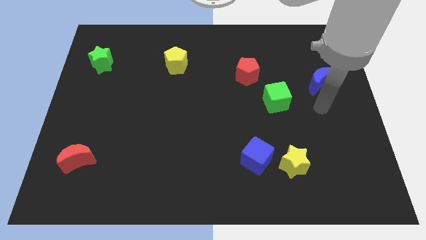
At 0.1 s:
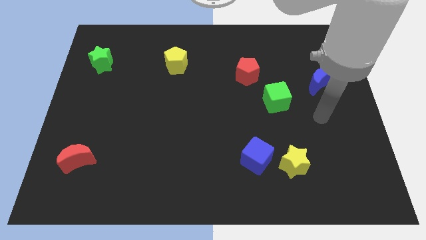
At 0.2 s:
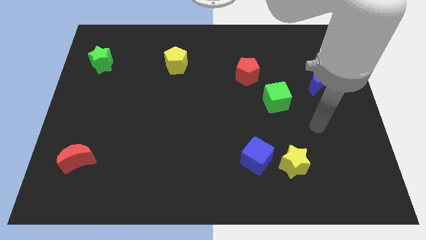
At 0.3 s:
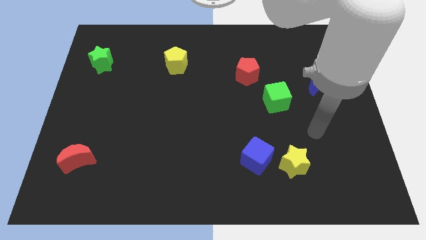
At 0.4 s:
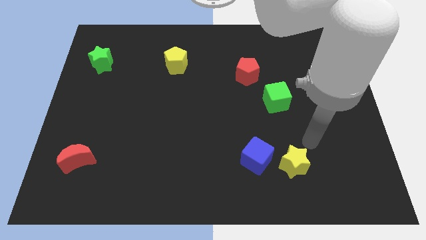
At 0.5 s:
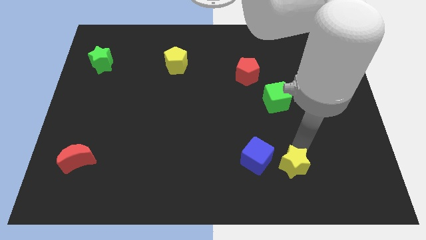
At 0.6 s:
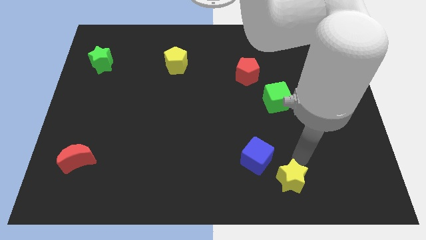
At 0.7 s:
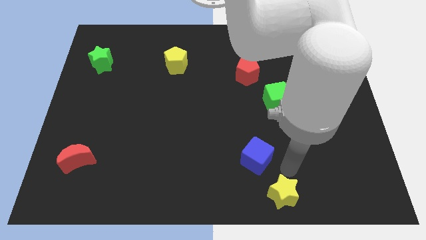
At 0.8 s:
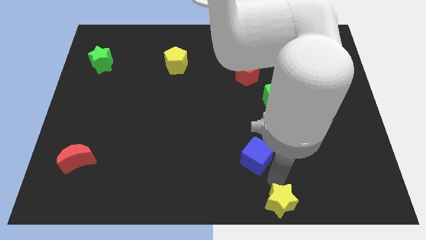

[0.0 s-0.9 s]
pull the blue cube apart from the yellow star

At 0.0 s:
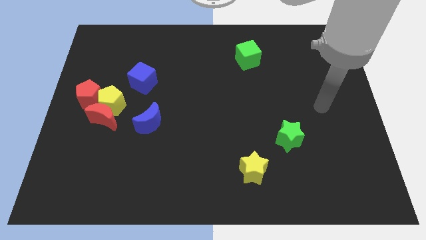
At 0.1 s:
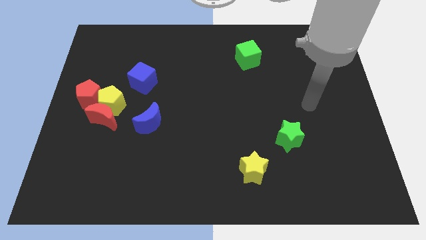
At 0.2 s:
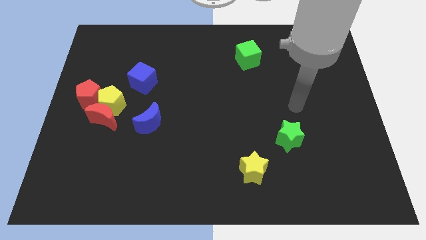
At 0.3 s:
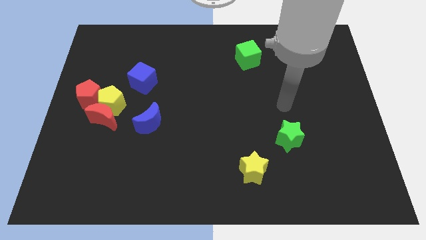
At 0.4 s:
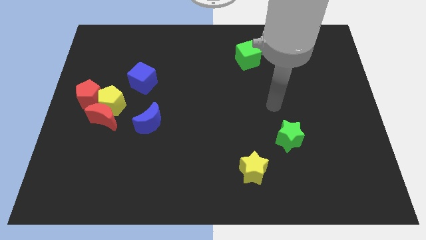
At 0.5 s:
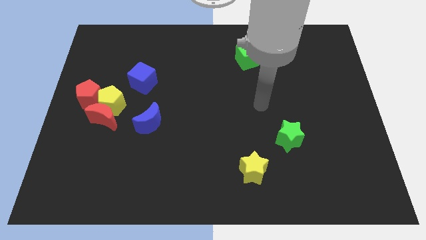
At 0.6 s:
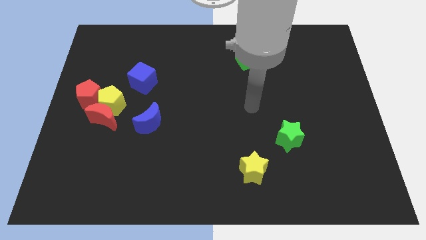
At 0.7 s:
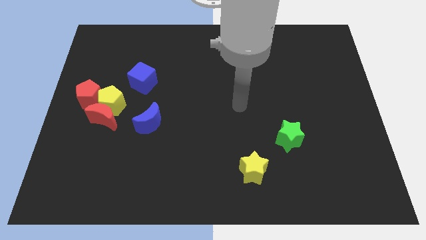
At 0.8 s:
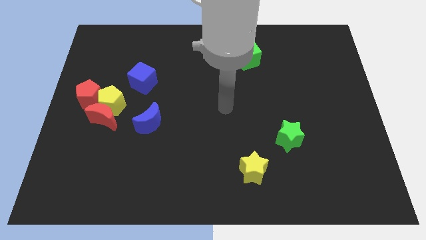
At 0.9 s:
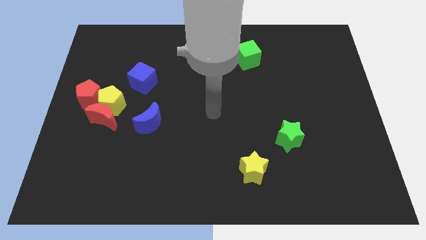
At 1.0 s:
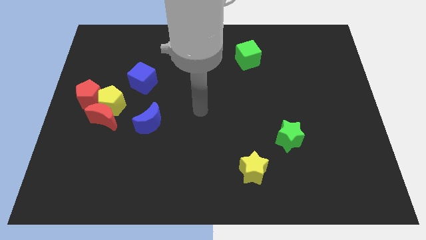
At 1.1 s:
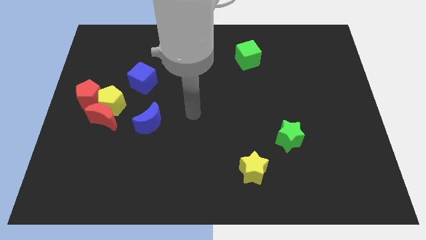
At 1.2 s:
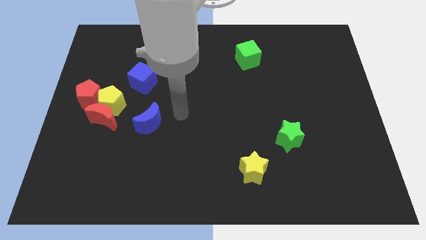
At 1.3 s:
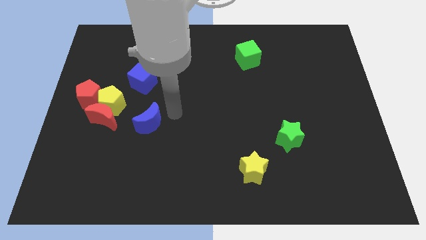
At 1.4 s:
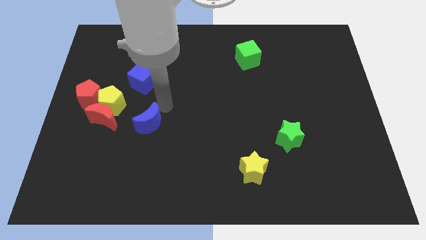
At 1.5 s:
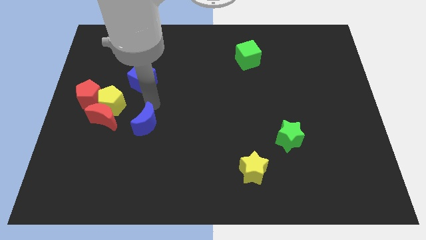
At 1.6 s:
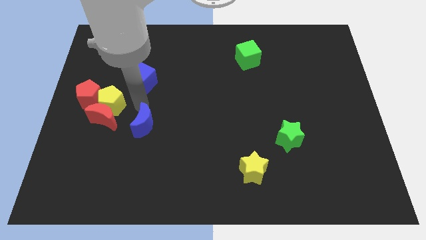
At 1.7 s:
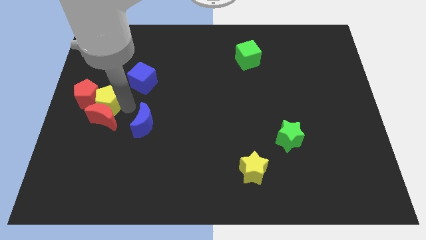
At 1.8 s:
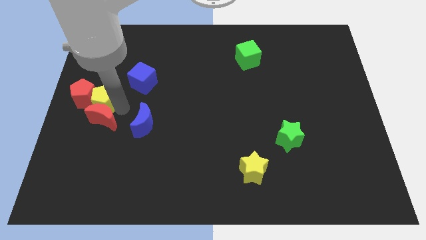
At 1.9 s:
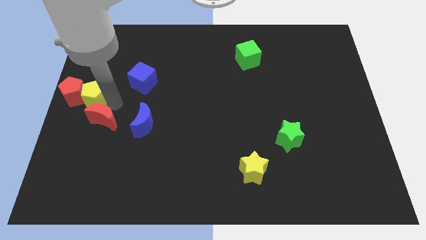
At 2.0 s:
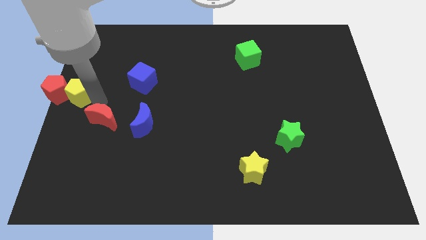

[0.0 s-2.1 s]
pull the red moon apart from the yellow pentagon and red pentagon

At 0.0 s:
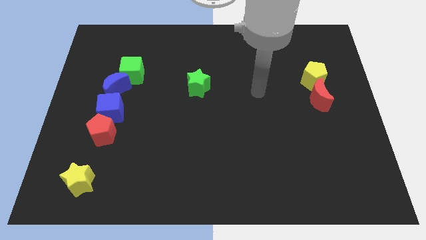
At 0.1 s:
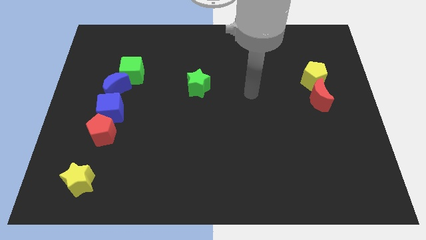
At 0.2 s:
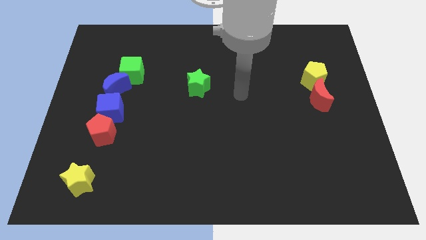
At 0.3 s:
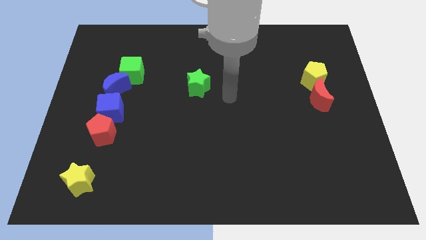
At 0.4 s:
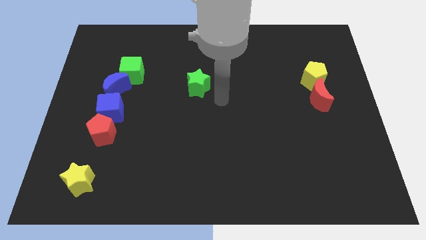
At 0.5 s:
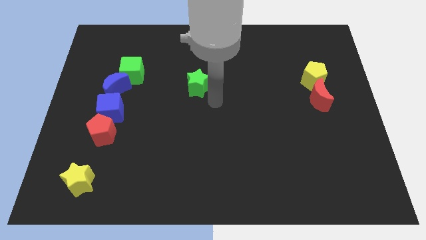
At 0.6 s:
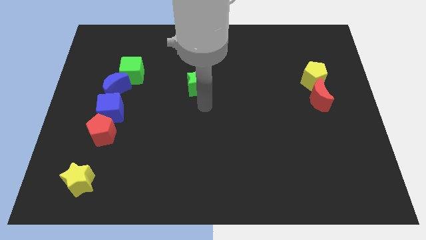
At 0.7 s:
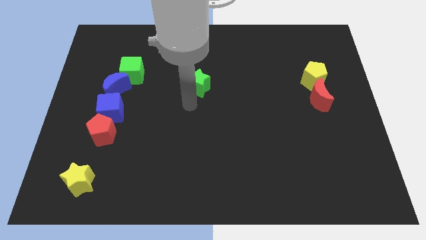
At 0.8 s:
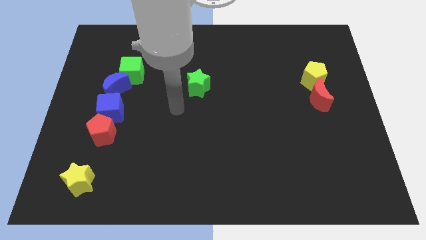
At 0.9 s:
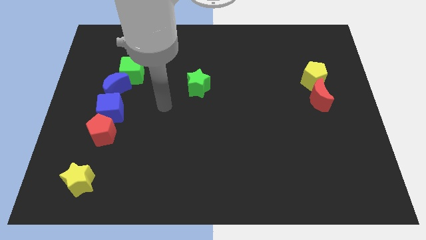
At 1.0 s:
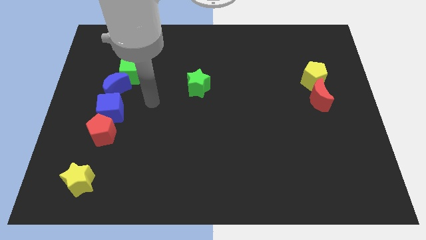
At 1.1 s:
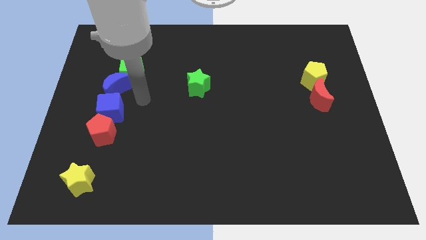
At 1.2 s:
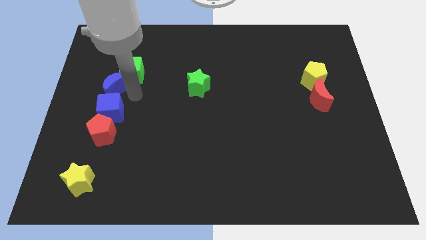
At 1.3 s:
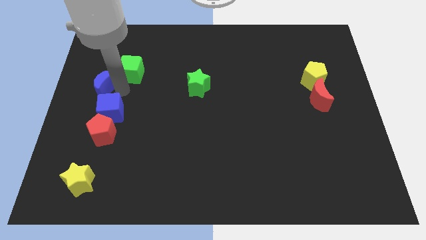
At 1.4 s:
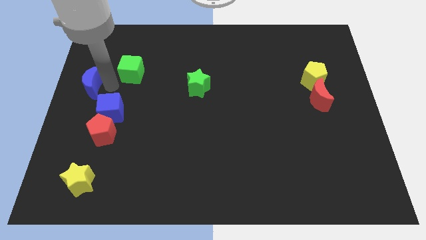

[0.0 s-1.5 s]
separate the green cube from the blue moon

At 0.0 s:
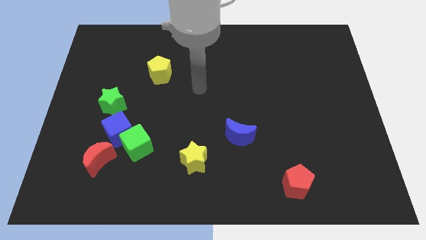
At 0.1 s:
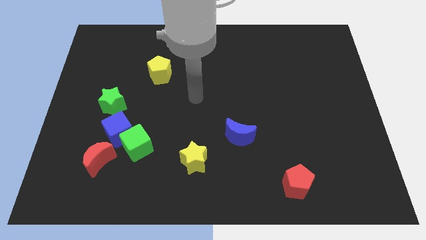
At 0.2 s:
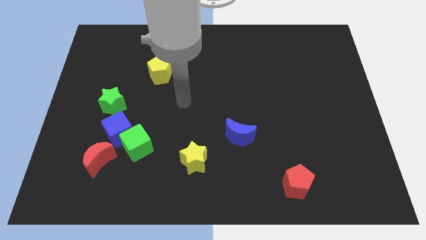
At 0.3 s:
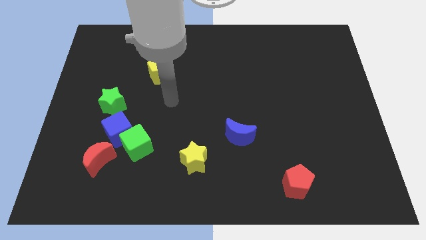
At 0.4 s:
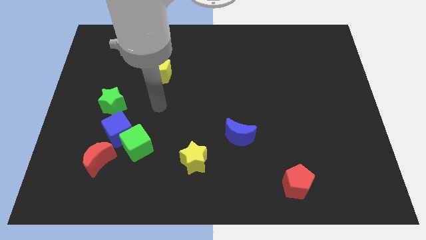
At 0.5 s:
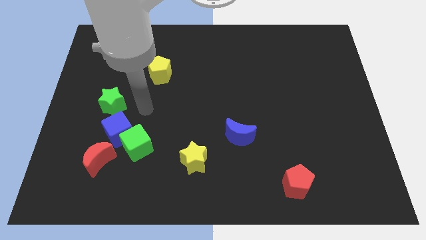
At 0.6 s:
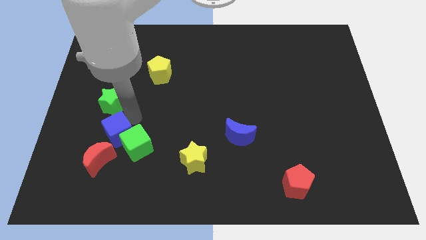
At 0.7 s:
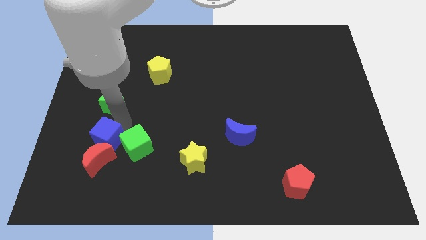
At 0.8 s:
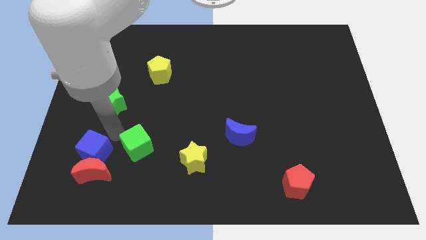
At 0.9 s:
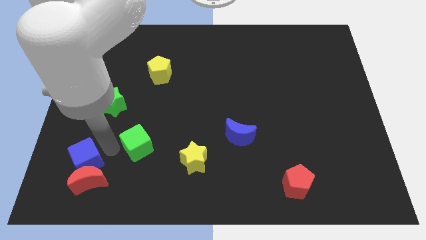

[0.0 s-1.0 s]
move the green cube away from the blue cube and red moon

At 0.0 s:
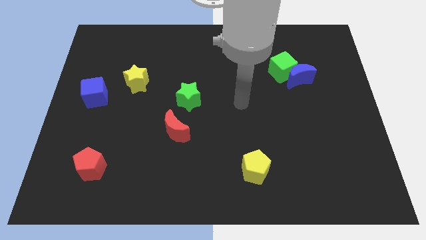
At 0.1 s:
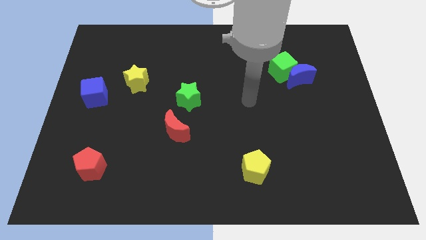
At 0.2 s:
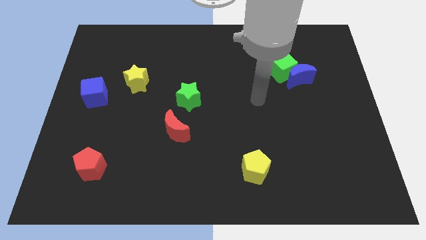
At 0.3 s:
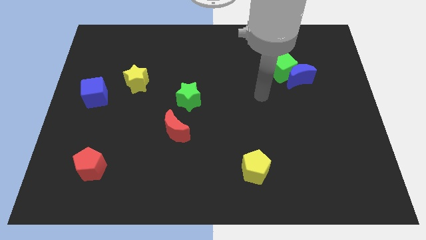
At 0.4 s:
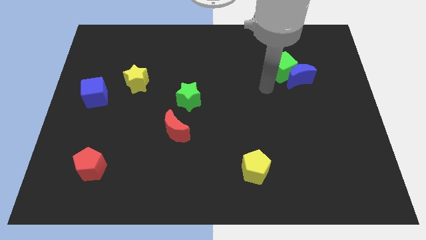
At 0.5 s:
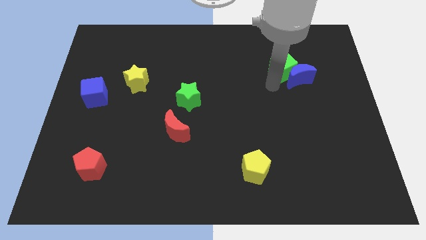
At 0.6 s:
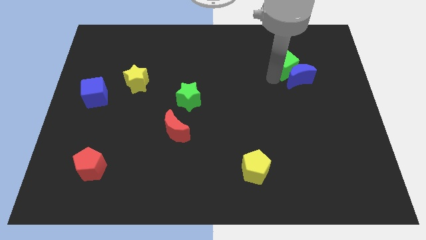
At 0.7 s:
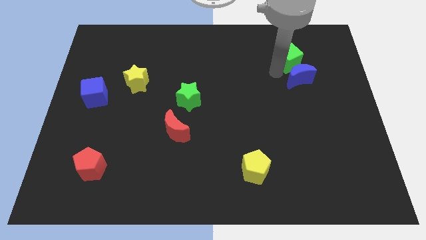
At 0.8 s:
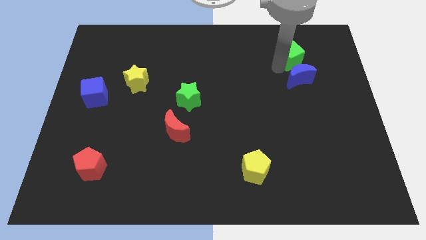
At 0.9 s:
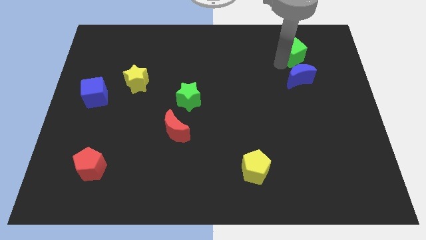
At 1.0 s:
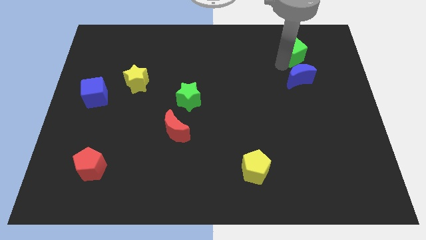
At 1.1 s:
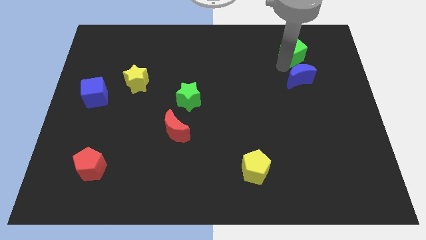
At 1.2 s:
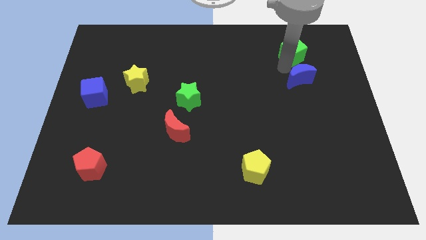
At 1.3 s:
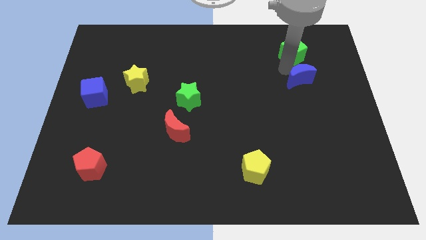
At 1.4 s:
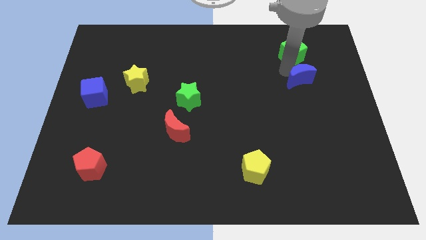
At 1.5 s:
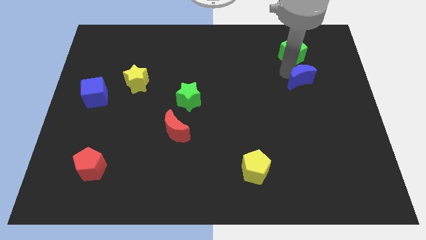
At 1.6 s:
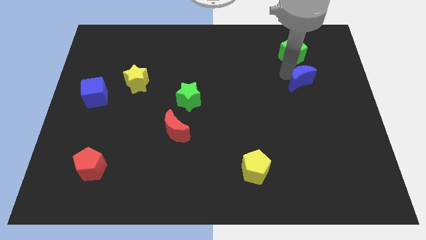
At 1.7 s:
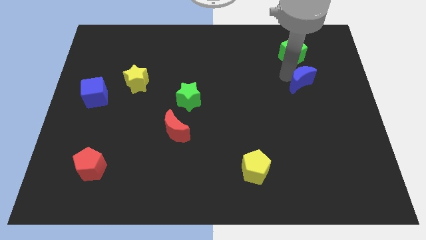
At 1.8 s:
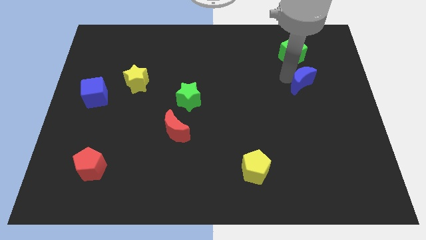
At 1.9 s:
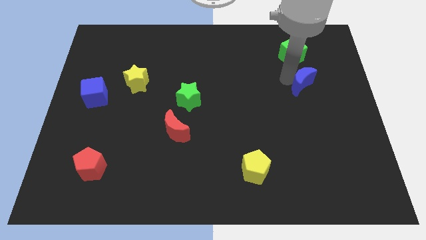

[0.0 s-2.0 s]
move the blue moon away from the green cube

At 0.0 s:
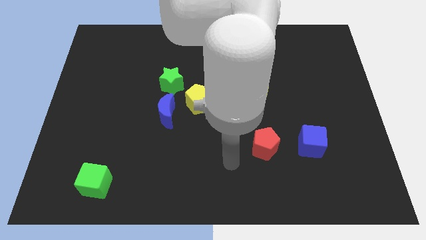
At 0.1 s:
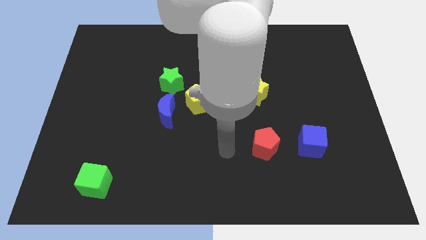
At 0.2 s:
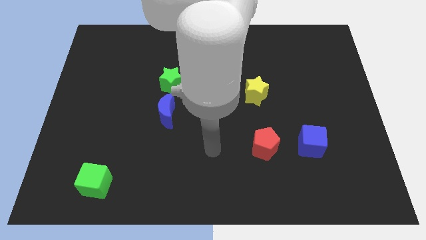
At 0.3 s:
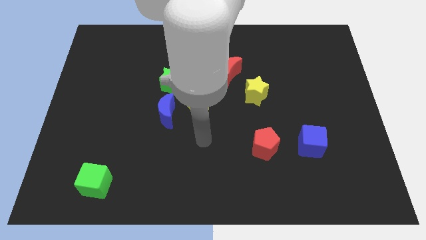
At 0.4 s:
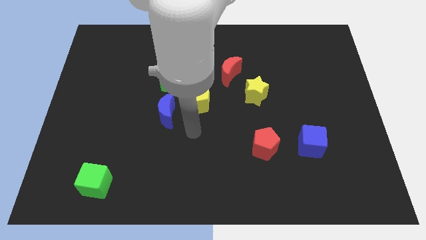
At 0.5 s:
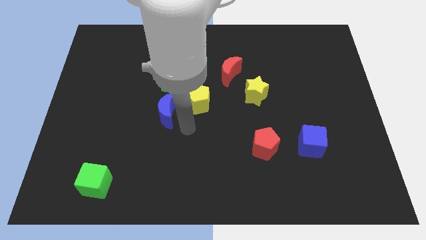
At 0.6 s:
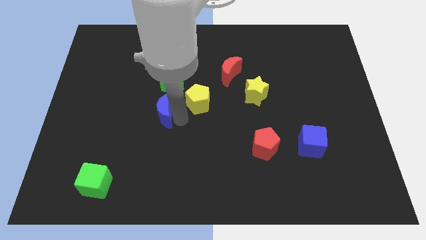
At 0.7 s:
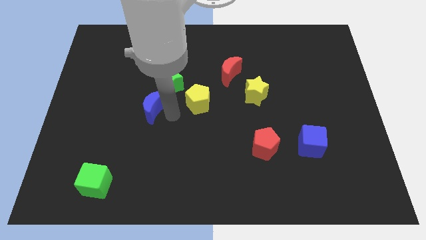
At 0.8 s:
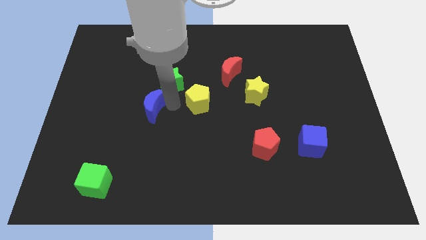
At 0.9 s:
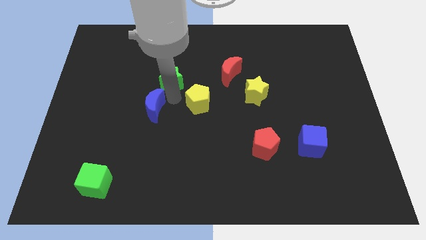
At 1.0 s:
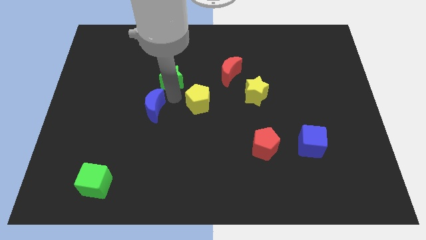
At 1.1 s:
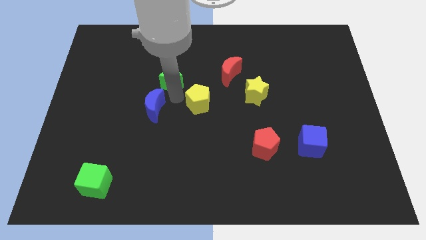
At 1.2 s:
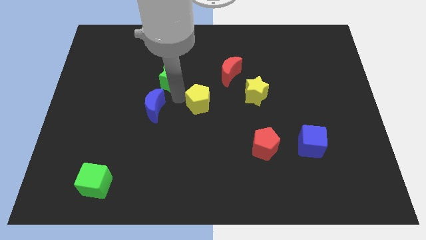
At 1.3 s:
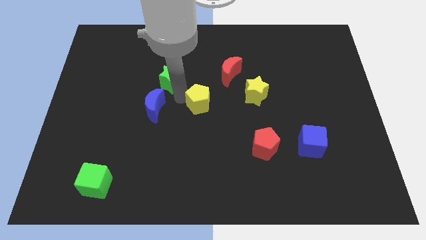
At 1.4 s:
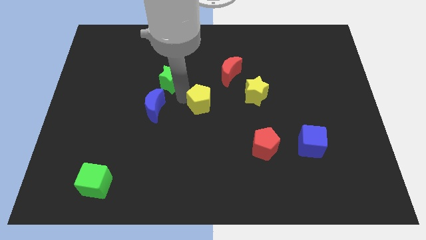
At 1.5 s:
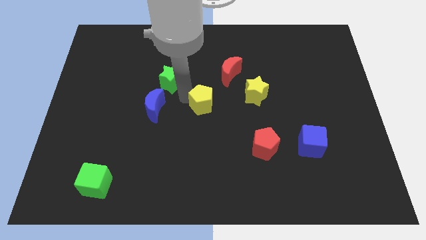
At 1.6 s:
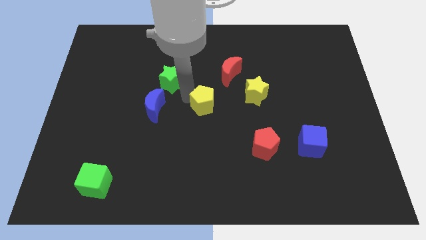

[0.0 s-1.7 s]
separate the yellow pentagon from the blue moon and green star
